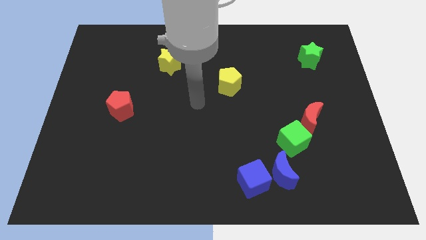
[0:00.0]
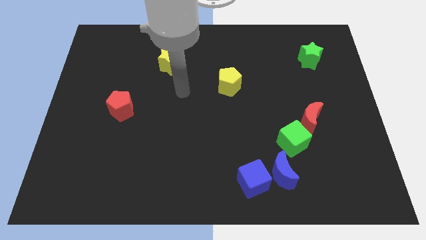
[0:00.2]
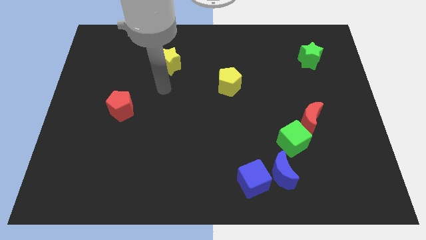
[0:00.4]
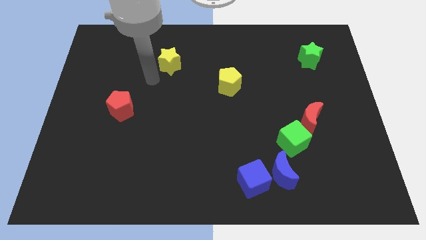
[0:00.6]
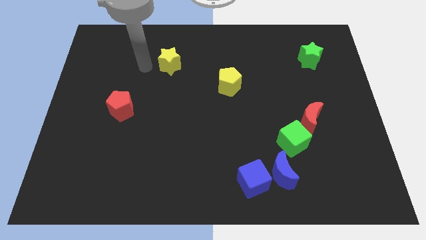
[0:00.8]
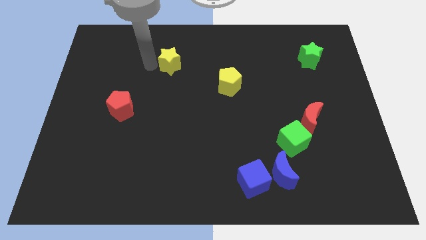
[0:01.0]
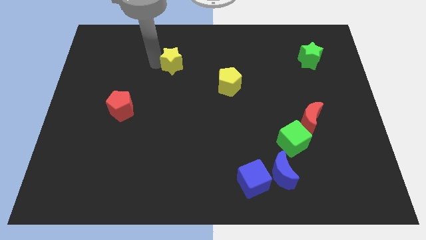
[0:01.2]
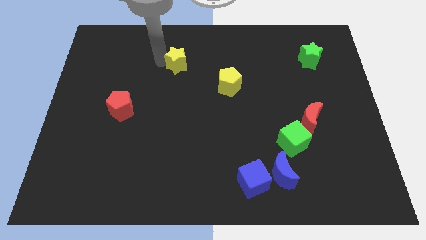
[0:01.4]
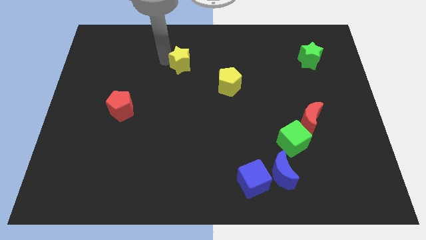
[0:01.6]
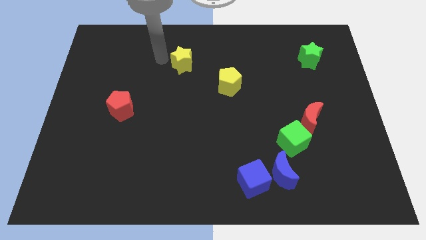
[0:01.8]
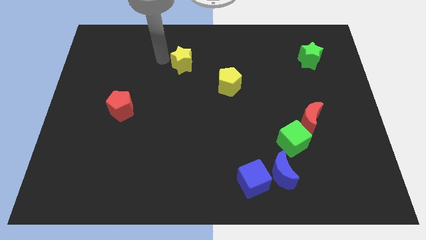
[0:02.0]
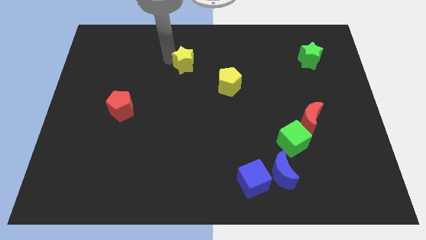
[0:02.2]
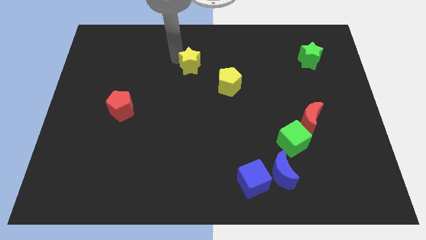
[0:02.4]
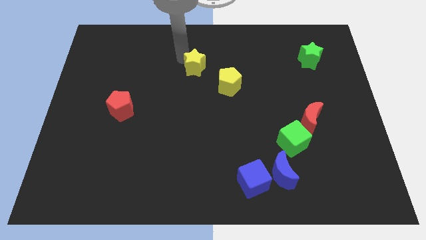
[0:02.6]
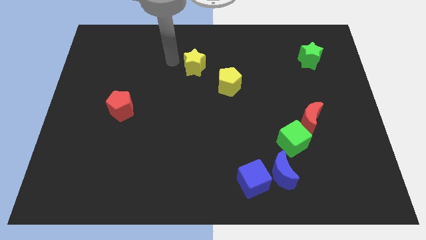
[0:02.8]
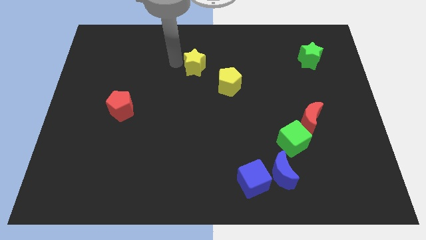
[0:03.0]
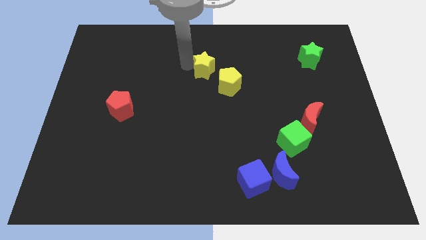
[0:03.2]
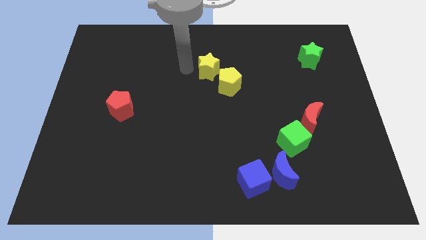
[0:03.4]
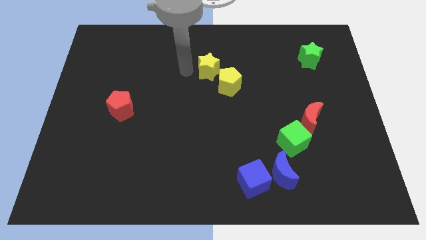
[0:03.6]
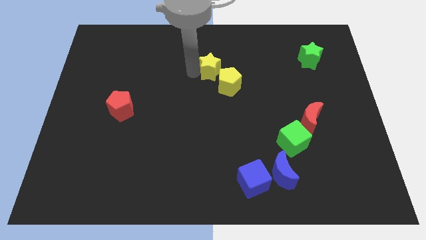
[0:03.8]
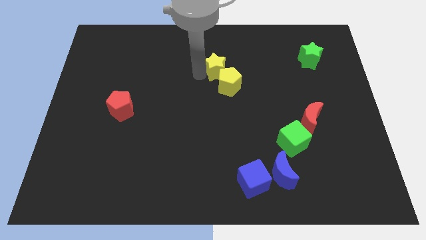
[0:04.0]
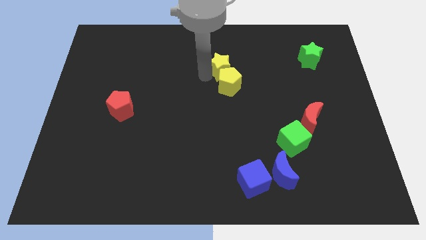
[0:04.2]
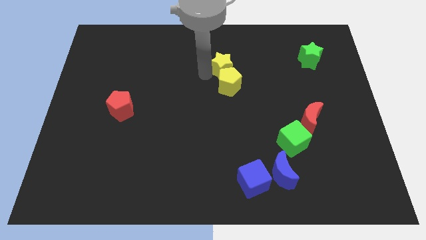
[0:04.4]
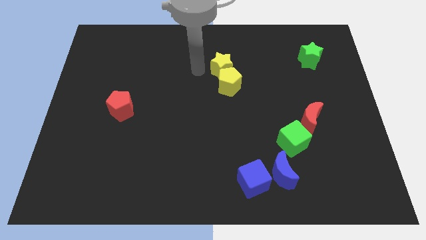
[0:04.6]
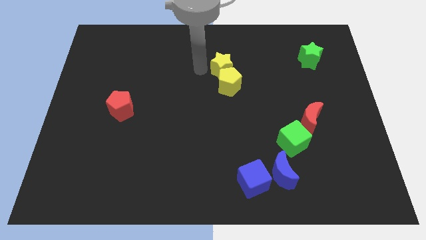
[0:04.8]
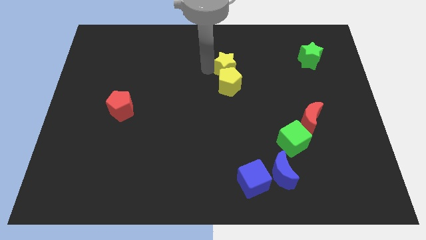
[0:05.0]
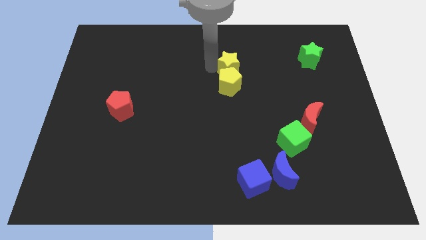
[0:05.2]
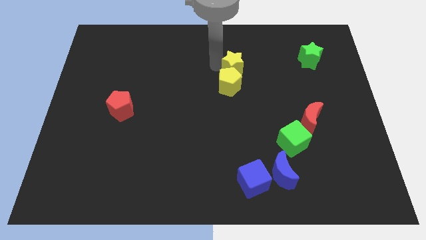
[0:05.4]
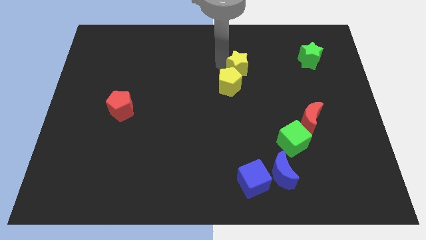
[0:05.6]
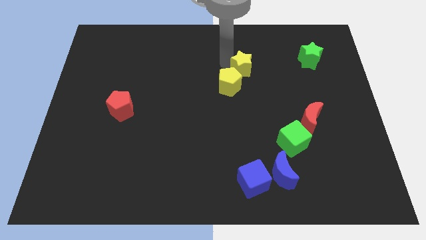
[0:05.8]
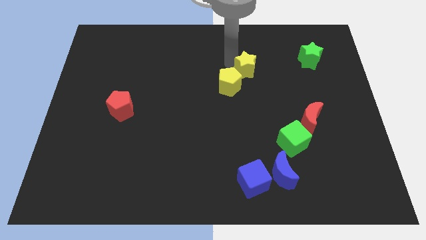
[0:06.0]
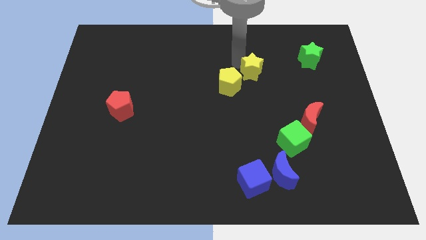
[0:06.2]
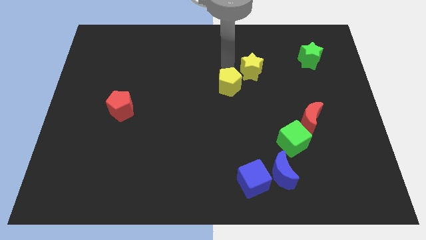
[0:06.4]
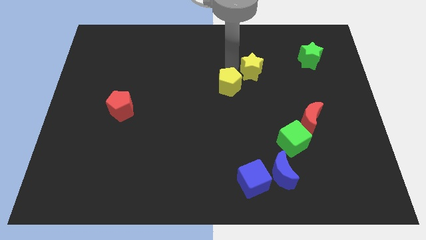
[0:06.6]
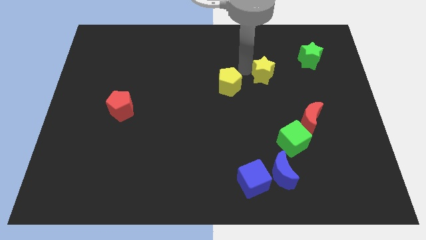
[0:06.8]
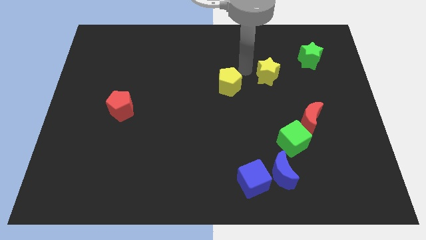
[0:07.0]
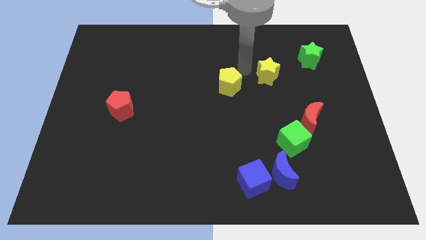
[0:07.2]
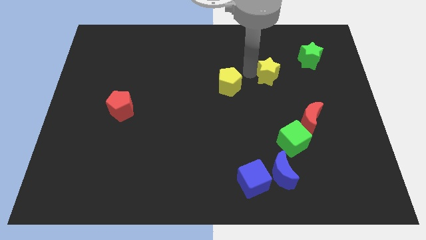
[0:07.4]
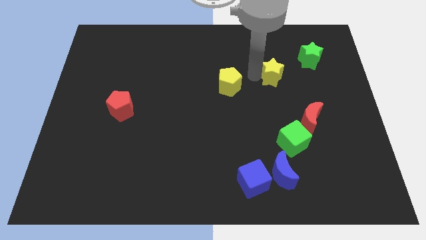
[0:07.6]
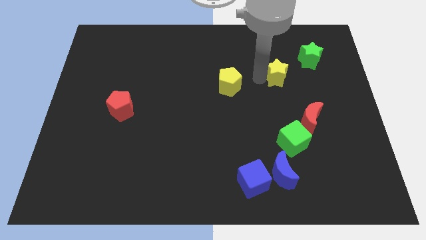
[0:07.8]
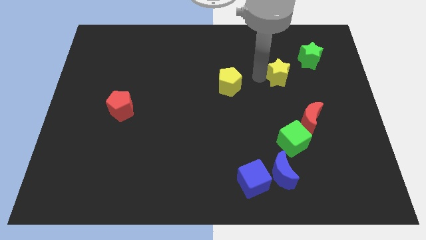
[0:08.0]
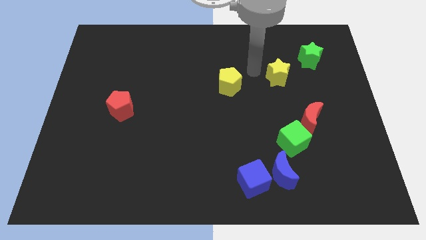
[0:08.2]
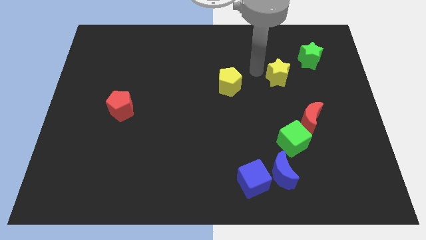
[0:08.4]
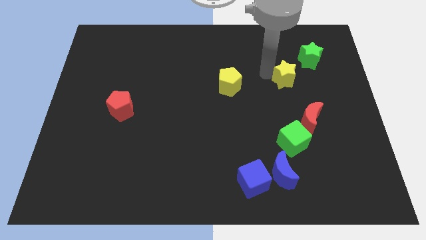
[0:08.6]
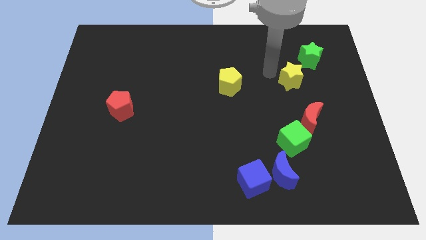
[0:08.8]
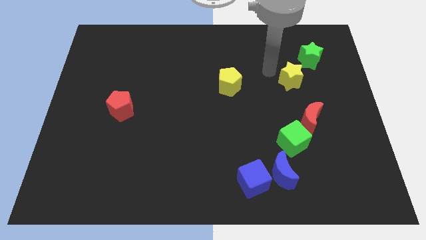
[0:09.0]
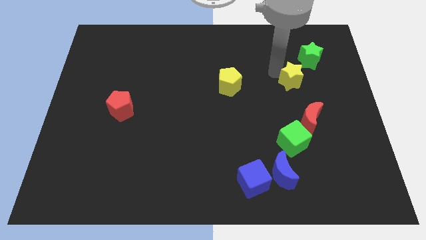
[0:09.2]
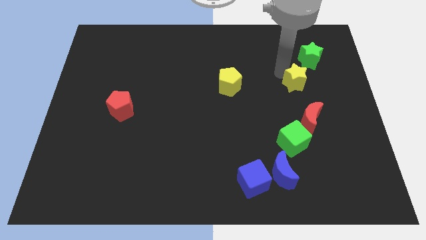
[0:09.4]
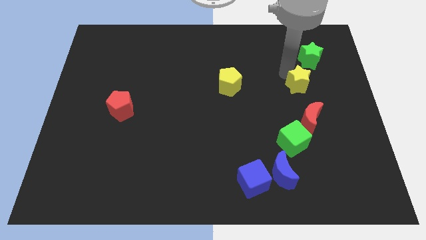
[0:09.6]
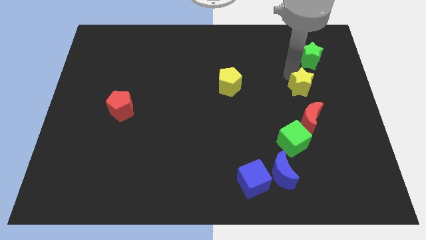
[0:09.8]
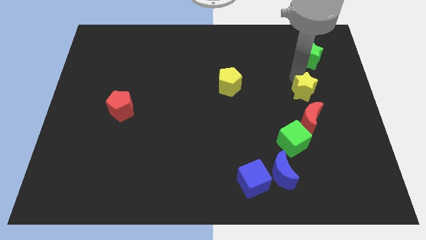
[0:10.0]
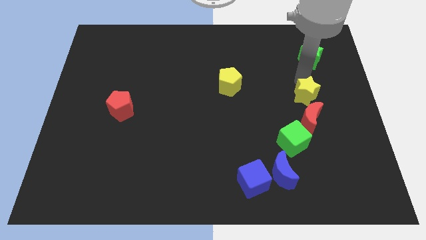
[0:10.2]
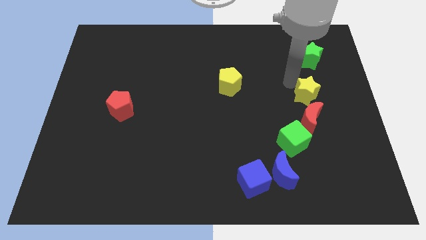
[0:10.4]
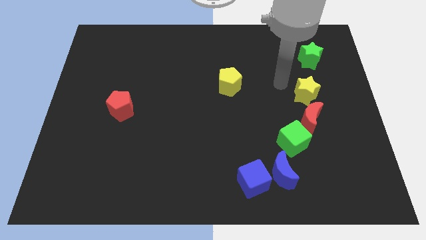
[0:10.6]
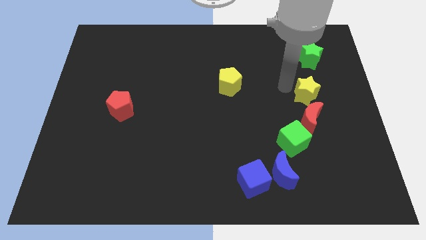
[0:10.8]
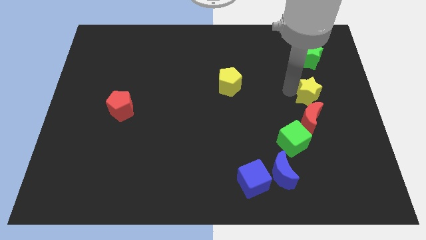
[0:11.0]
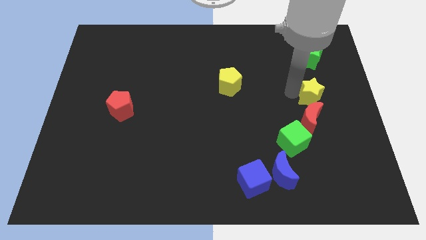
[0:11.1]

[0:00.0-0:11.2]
put the yellow star to the top right of the red moon

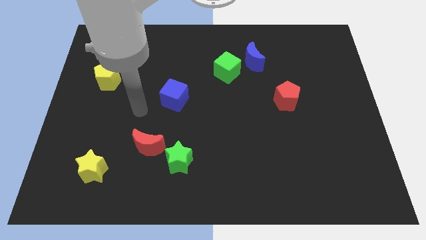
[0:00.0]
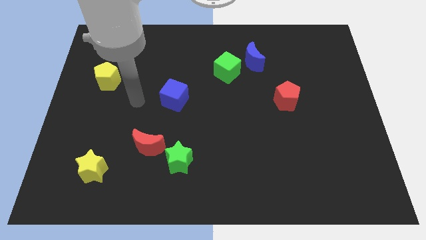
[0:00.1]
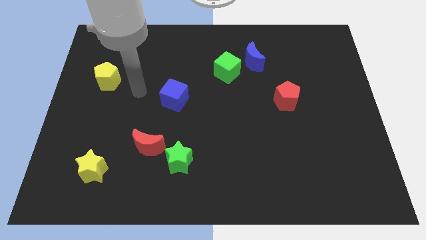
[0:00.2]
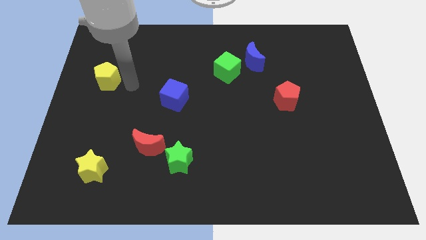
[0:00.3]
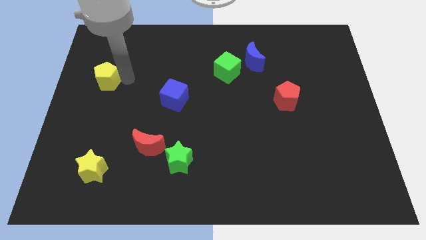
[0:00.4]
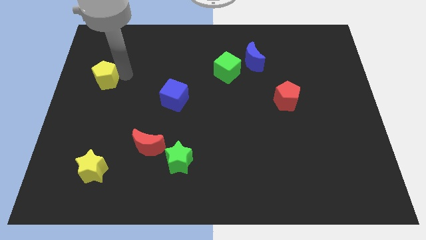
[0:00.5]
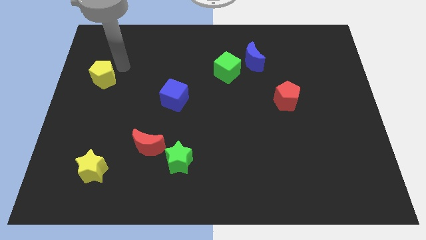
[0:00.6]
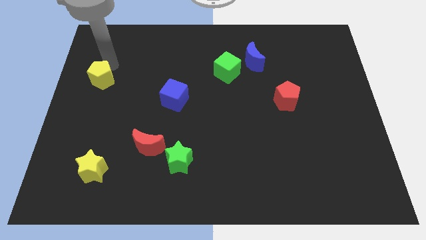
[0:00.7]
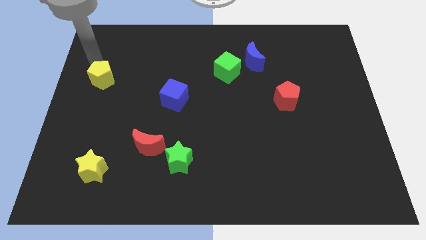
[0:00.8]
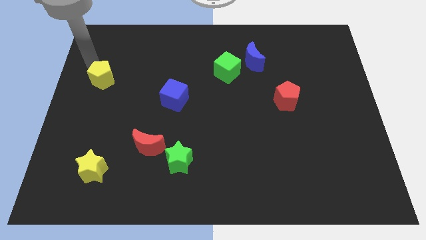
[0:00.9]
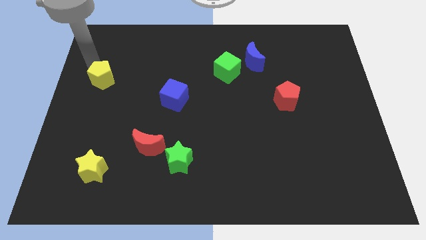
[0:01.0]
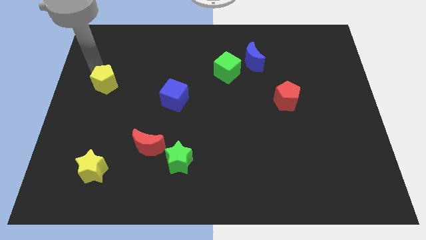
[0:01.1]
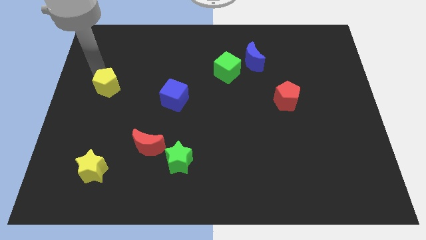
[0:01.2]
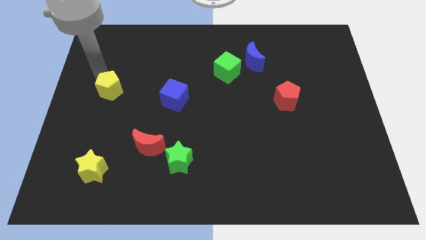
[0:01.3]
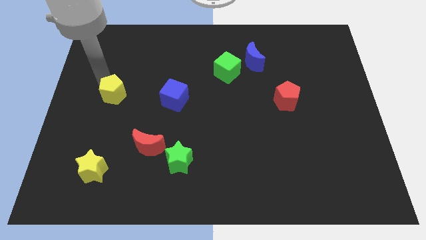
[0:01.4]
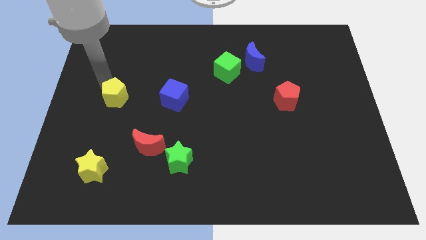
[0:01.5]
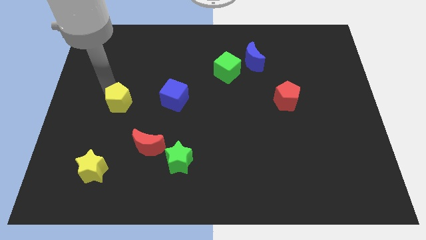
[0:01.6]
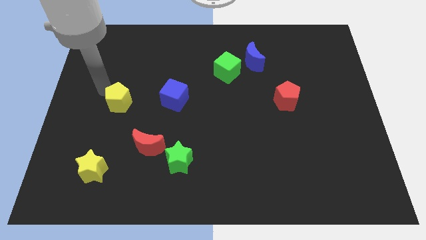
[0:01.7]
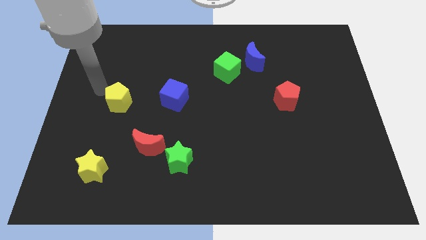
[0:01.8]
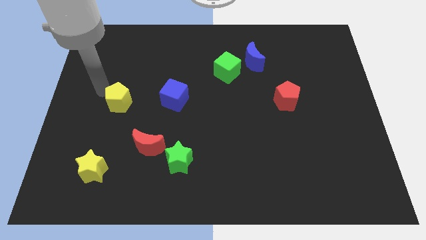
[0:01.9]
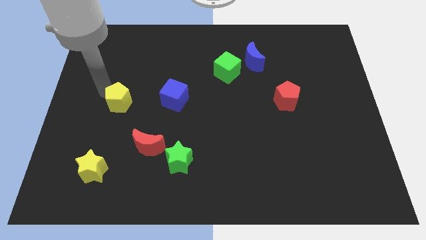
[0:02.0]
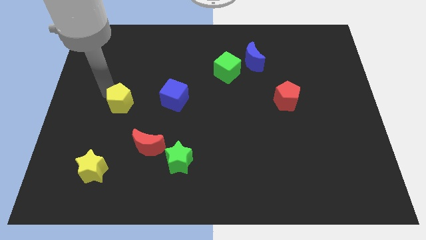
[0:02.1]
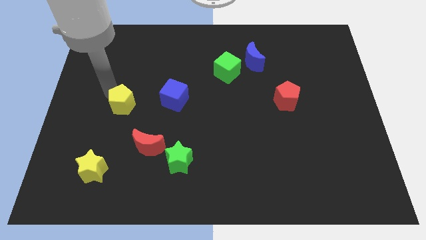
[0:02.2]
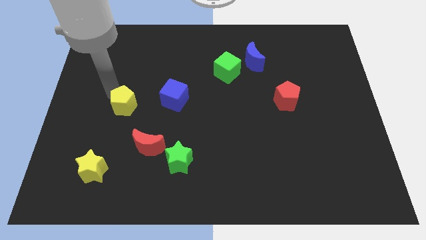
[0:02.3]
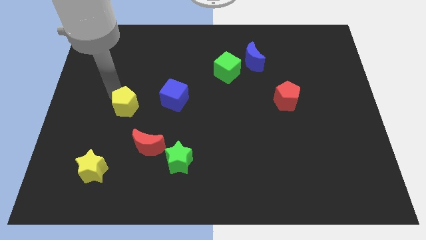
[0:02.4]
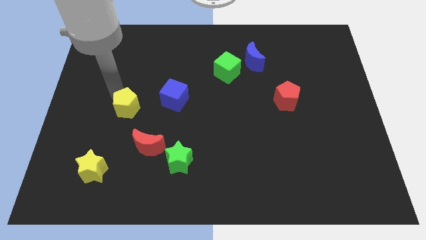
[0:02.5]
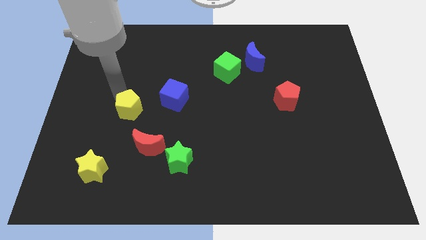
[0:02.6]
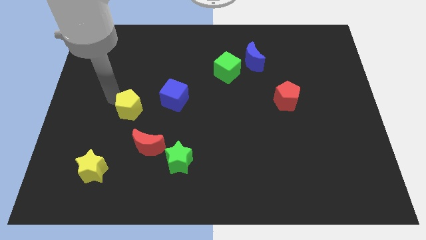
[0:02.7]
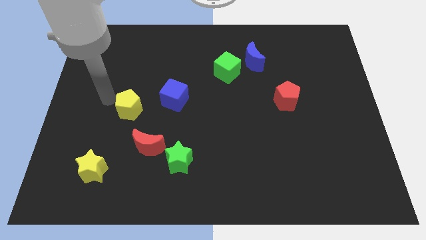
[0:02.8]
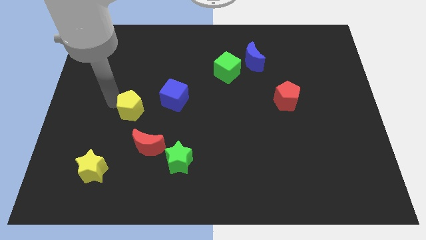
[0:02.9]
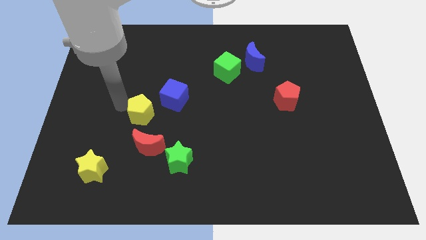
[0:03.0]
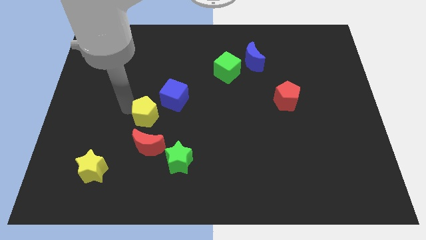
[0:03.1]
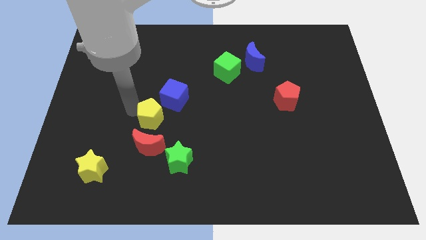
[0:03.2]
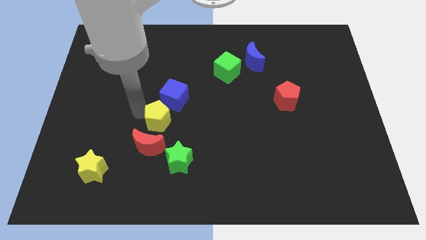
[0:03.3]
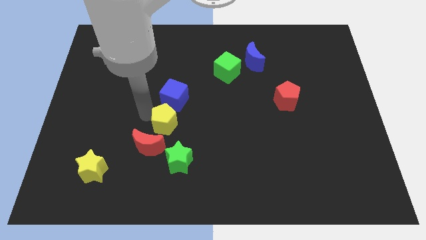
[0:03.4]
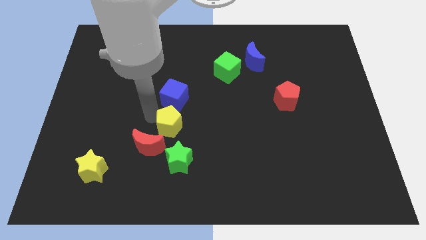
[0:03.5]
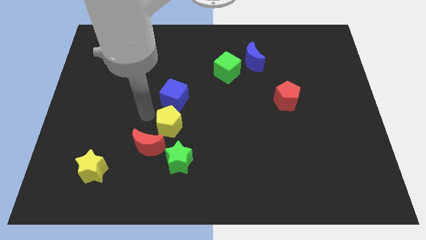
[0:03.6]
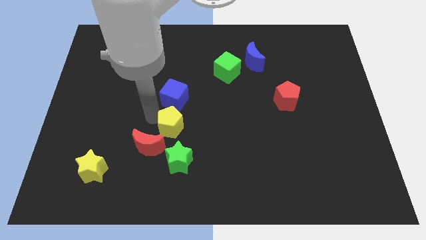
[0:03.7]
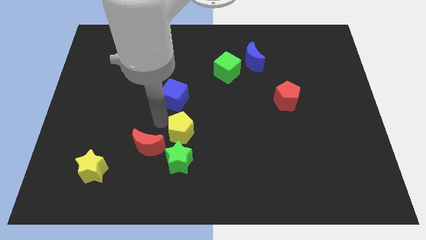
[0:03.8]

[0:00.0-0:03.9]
move the yellow pentagon diagonally up and to the right of the green star
